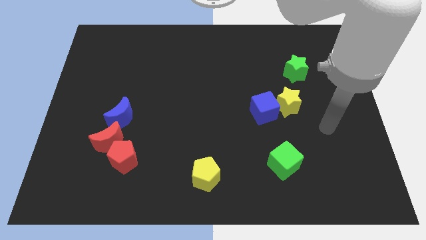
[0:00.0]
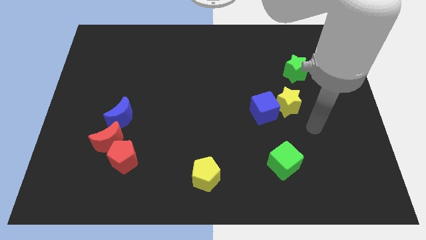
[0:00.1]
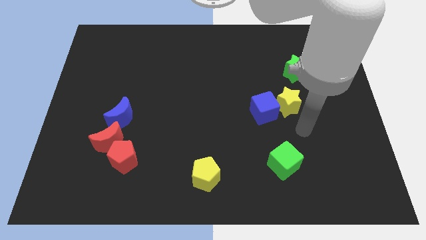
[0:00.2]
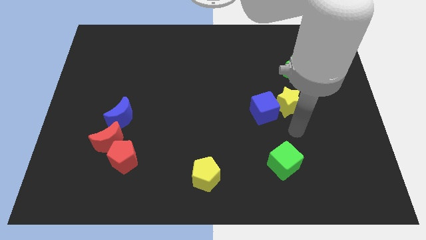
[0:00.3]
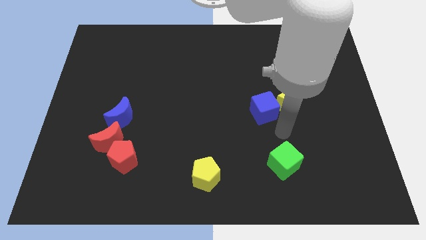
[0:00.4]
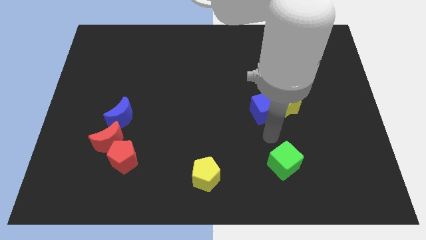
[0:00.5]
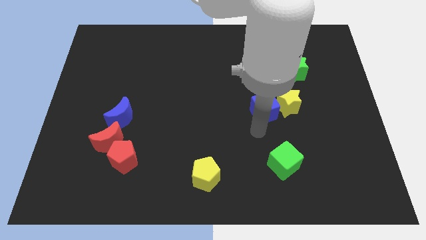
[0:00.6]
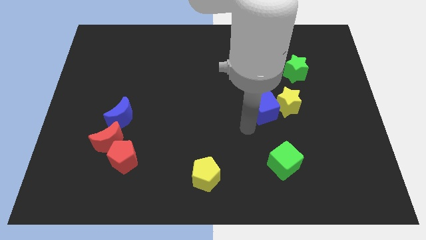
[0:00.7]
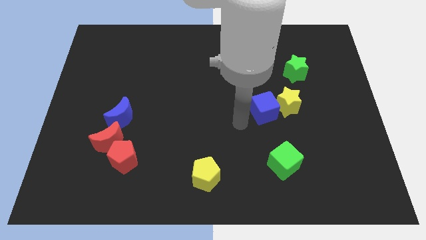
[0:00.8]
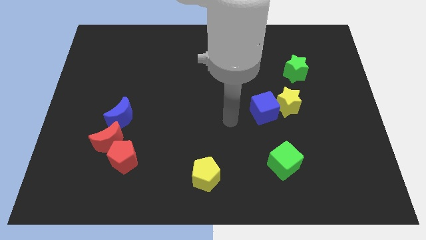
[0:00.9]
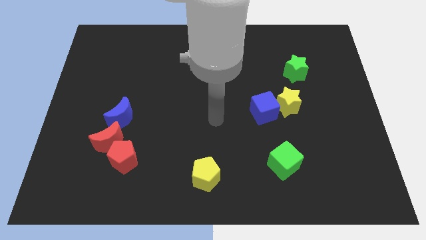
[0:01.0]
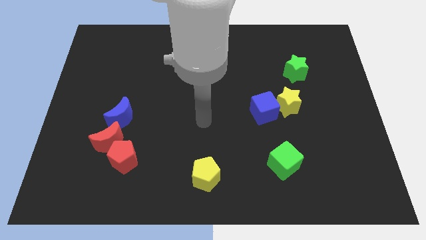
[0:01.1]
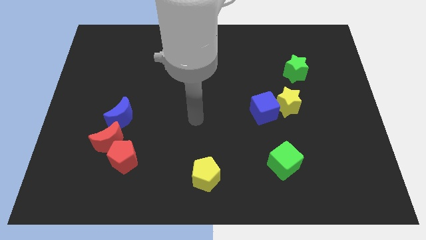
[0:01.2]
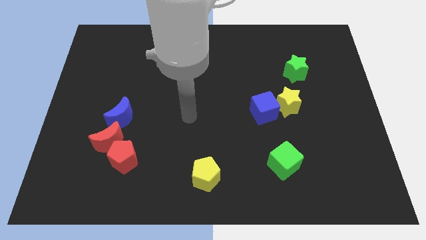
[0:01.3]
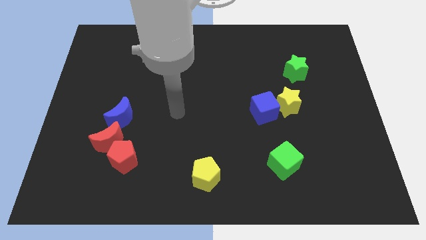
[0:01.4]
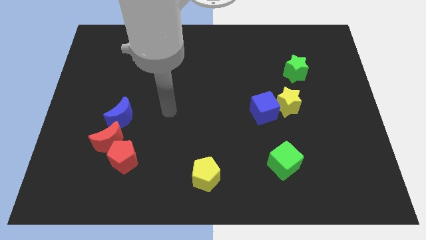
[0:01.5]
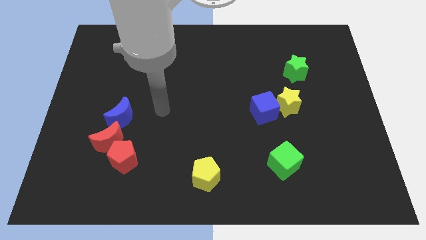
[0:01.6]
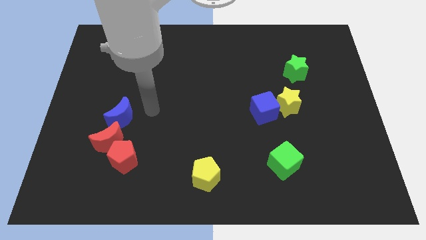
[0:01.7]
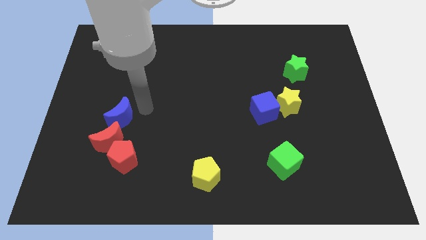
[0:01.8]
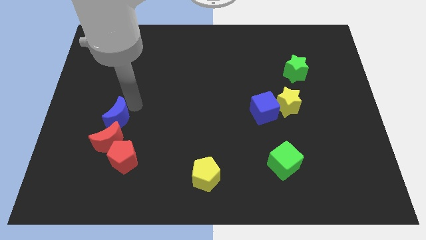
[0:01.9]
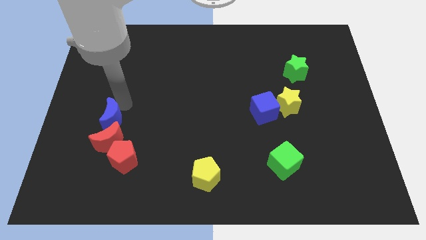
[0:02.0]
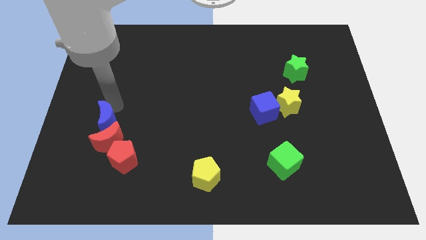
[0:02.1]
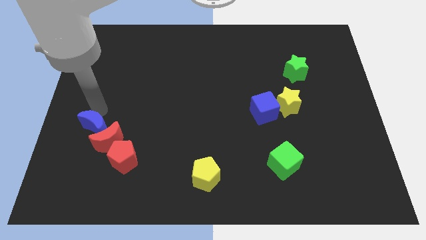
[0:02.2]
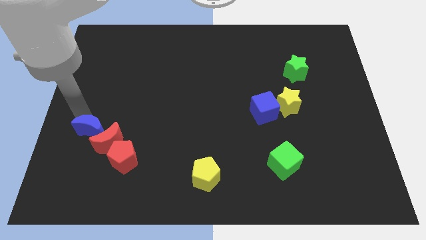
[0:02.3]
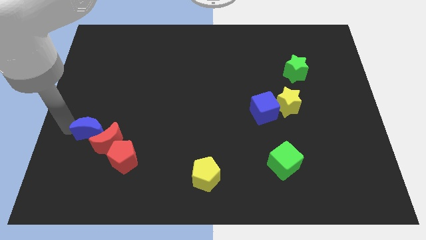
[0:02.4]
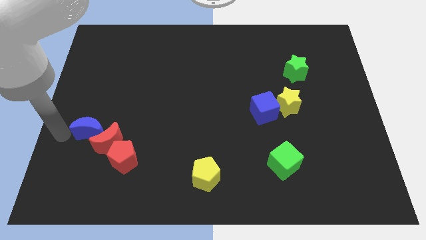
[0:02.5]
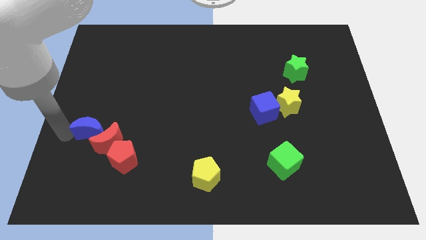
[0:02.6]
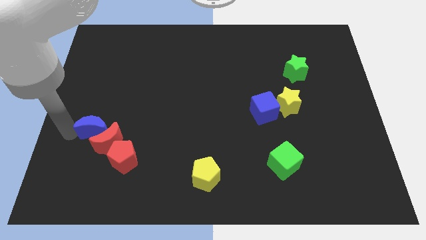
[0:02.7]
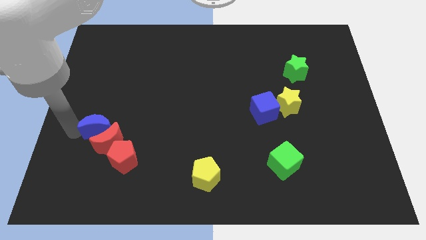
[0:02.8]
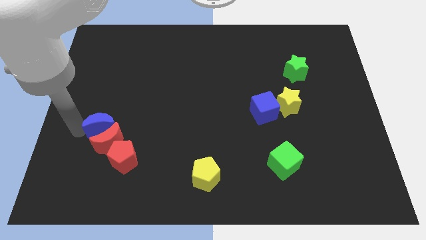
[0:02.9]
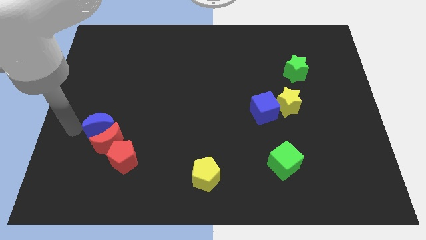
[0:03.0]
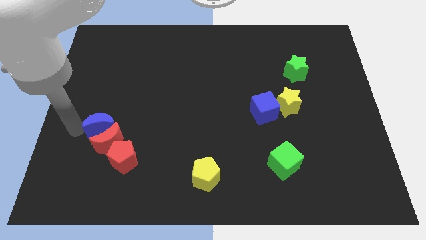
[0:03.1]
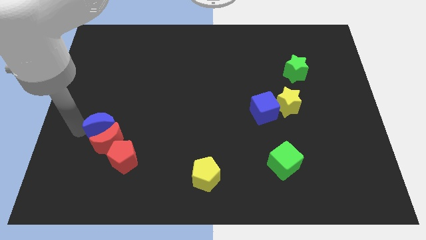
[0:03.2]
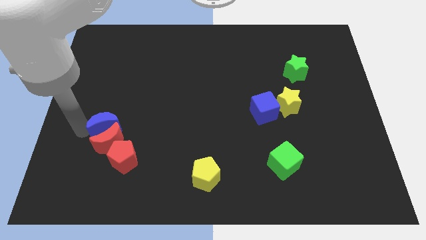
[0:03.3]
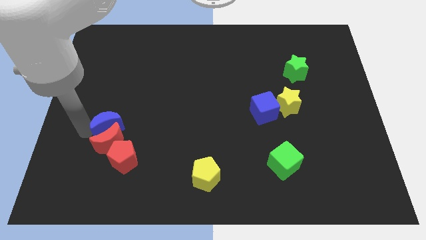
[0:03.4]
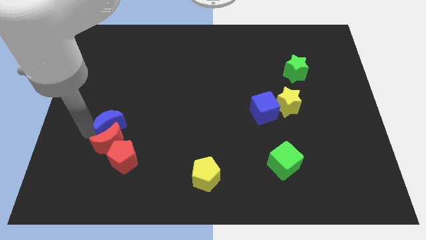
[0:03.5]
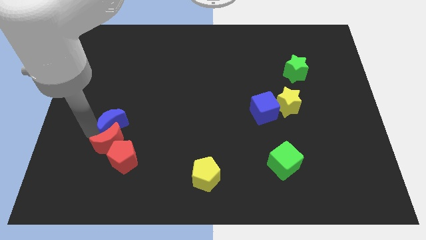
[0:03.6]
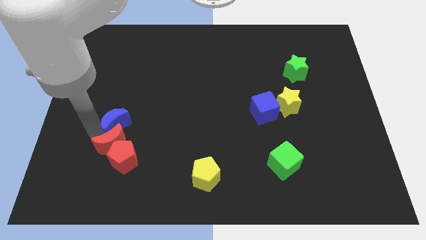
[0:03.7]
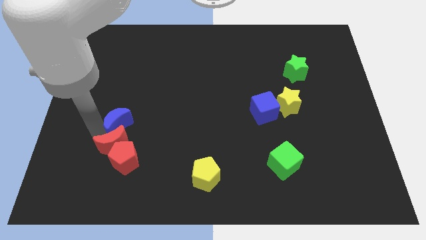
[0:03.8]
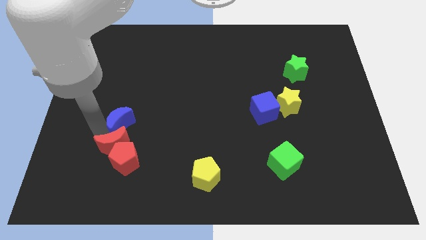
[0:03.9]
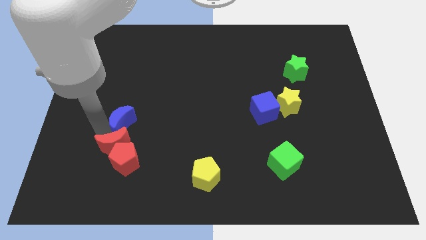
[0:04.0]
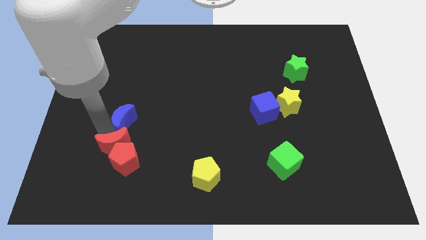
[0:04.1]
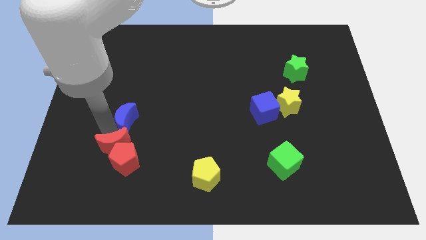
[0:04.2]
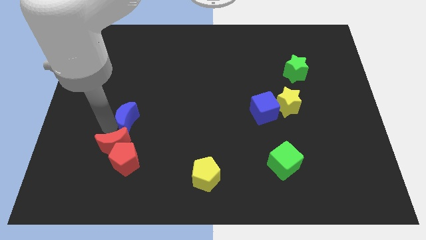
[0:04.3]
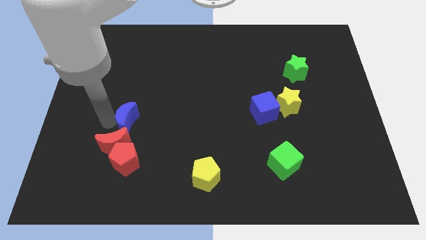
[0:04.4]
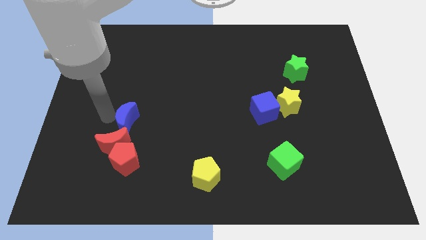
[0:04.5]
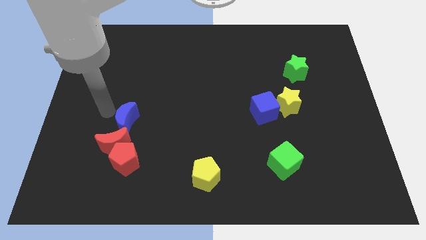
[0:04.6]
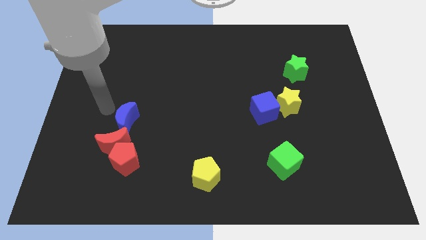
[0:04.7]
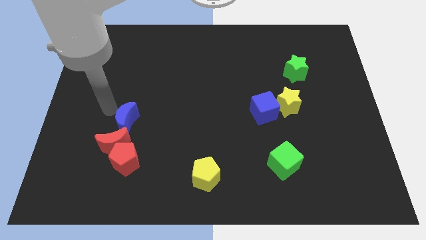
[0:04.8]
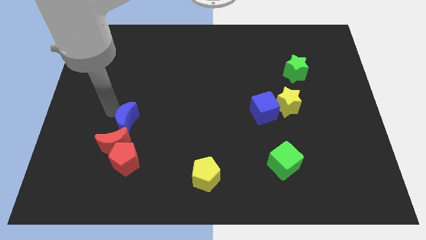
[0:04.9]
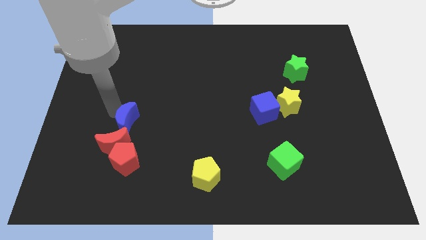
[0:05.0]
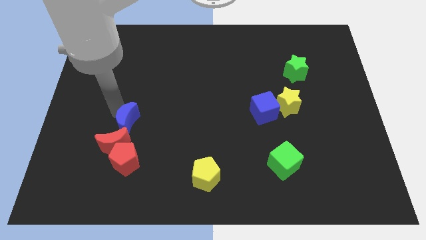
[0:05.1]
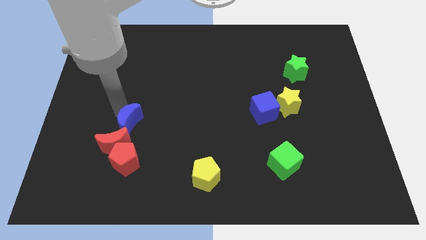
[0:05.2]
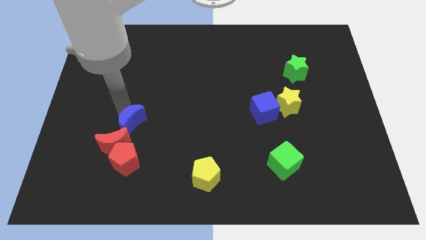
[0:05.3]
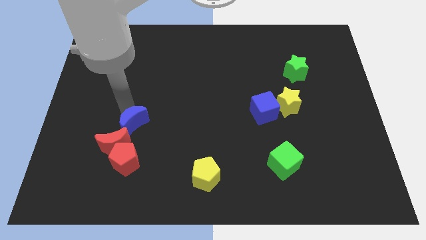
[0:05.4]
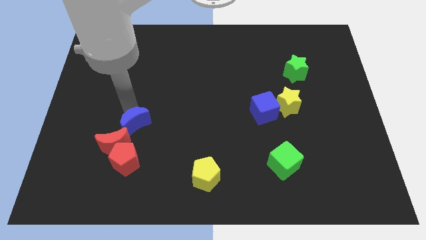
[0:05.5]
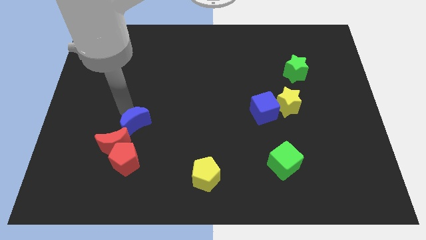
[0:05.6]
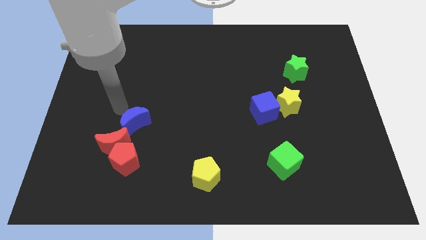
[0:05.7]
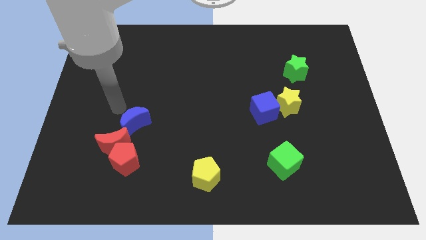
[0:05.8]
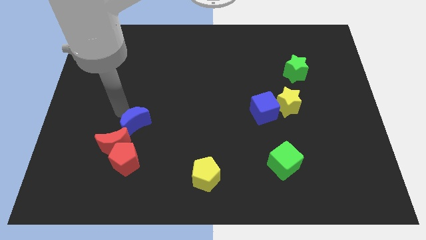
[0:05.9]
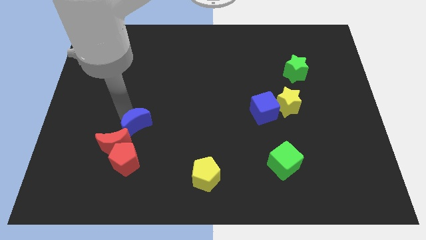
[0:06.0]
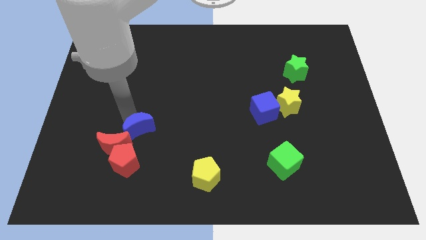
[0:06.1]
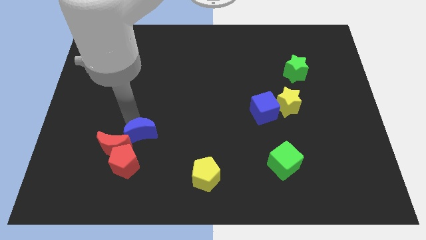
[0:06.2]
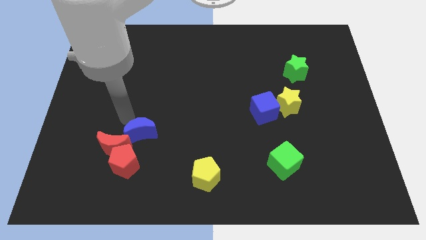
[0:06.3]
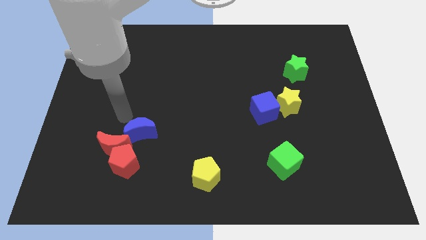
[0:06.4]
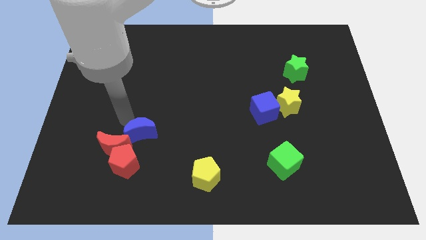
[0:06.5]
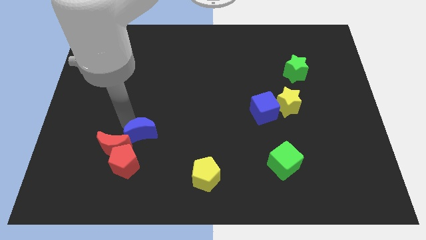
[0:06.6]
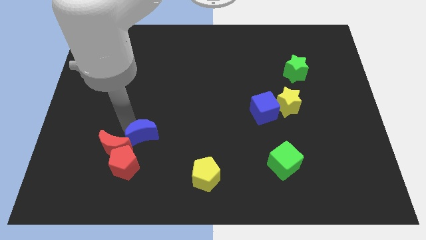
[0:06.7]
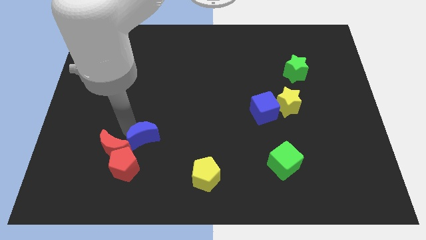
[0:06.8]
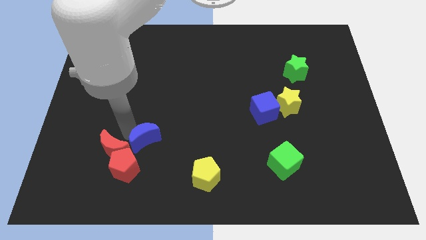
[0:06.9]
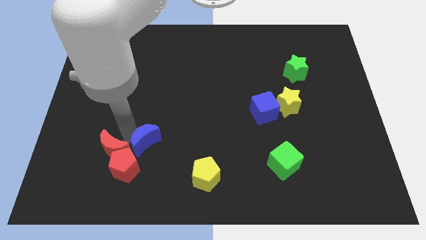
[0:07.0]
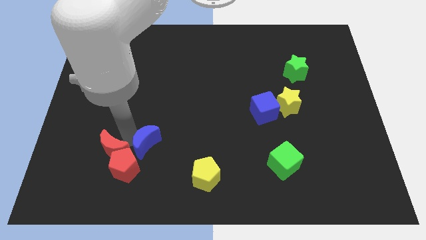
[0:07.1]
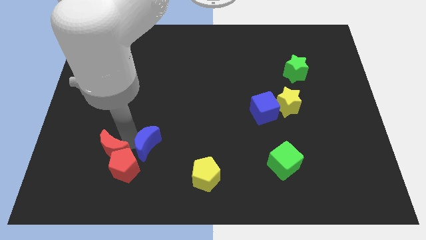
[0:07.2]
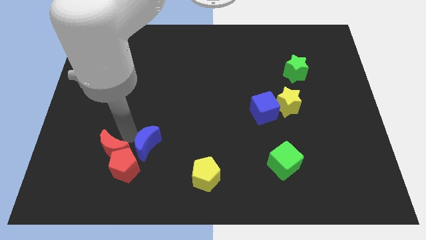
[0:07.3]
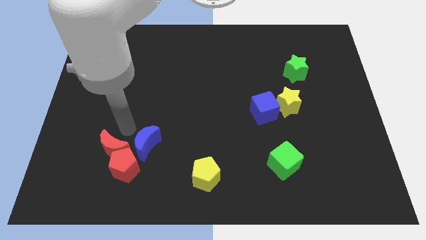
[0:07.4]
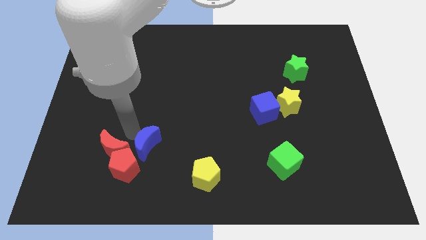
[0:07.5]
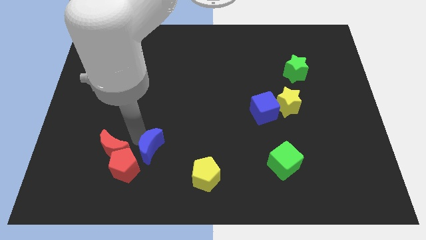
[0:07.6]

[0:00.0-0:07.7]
move the blue moon to the right side of the red pentagon

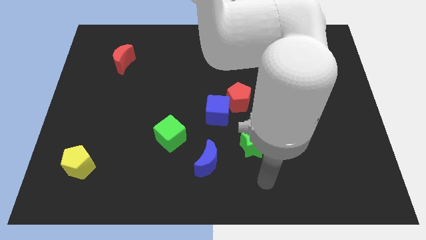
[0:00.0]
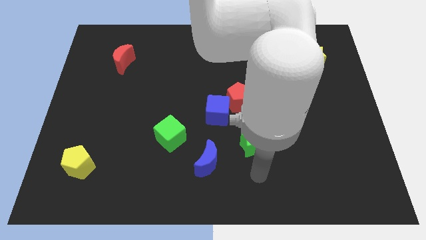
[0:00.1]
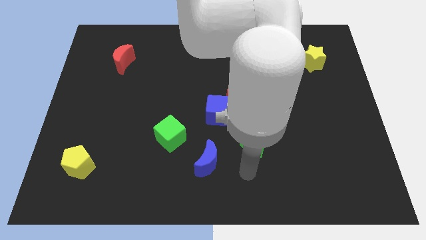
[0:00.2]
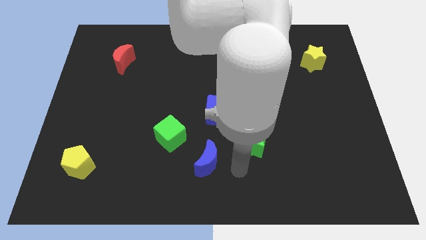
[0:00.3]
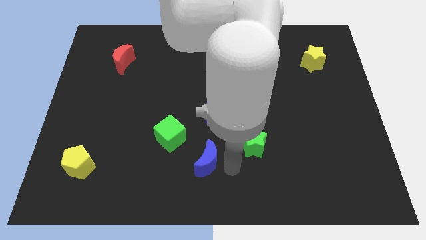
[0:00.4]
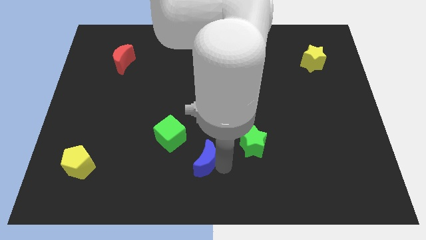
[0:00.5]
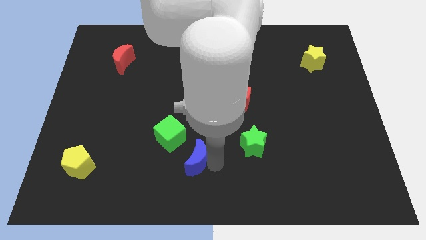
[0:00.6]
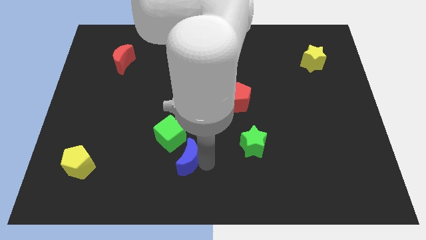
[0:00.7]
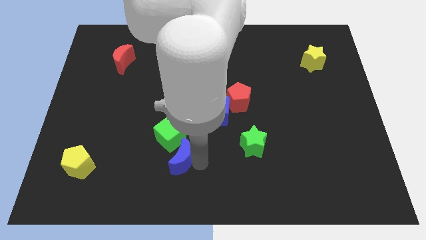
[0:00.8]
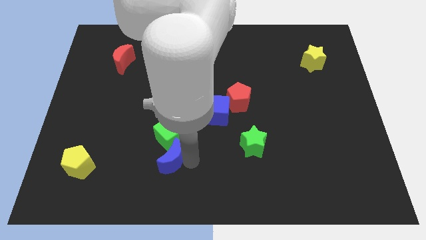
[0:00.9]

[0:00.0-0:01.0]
move the blue moon diagonally down and to the left of the green cube
